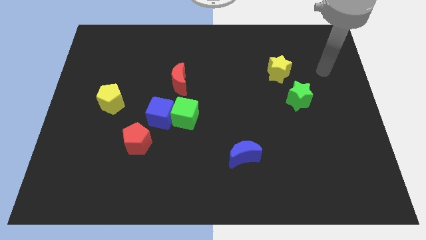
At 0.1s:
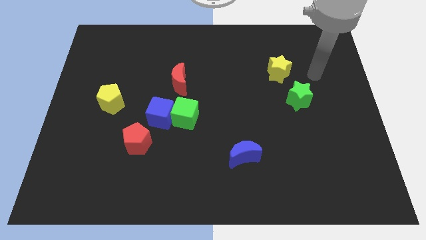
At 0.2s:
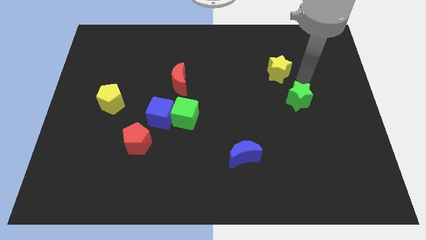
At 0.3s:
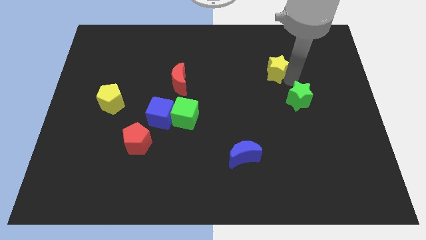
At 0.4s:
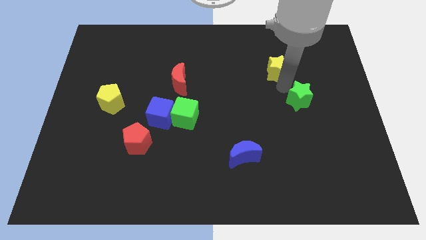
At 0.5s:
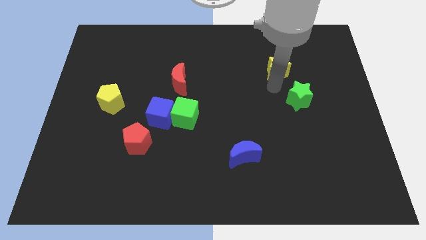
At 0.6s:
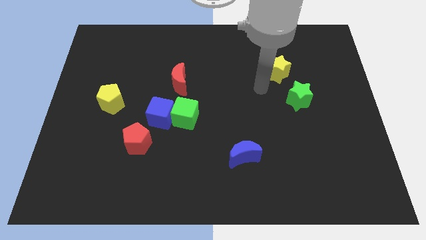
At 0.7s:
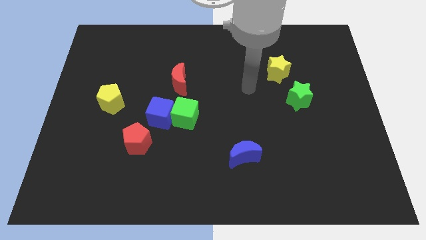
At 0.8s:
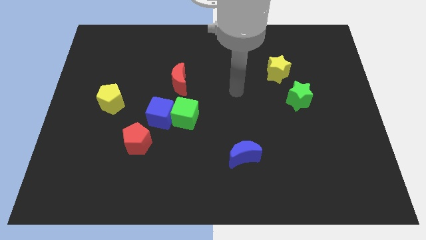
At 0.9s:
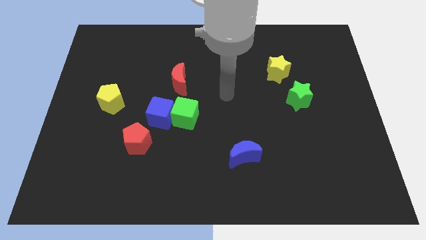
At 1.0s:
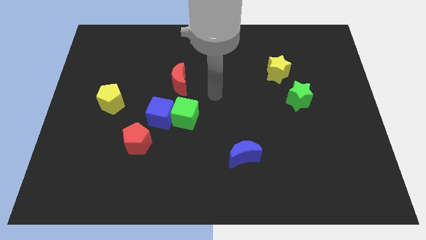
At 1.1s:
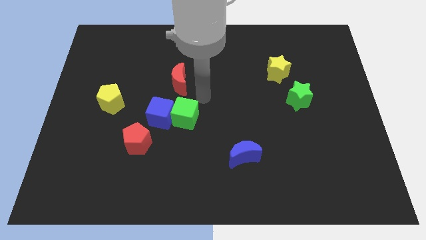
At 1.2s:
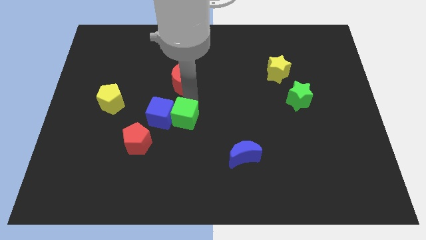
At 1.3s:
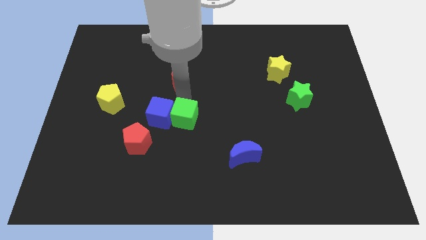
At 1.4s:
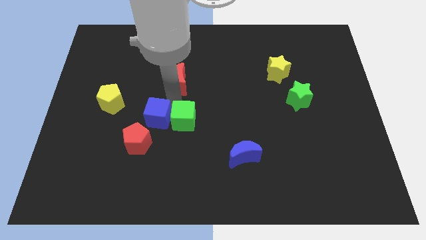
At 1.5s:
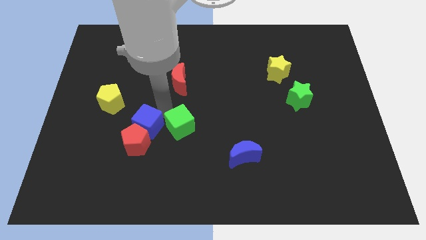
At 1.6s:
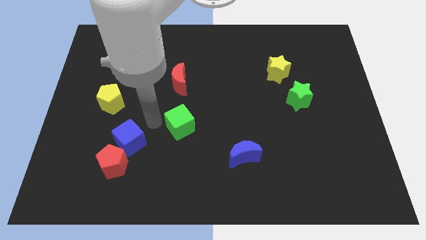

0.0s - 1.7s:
move the green cube away from the blue cube

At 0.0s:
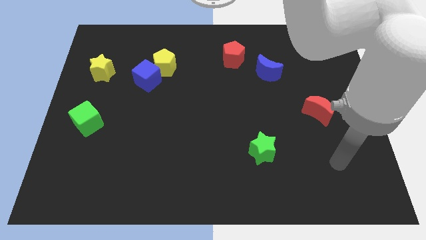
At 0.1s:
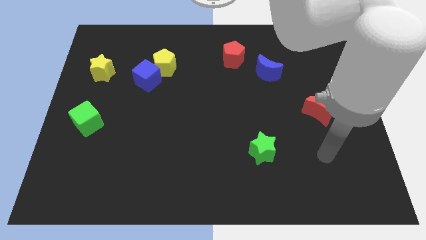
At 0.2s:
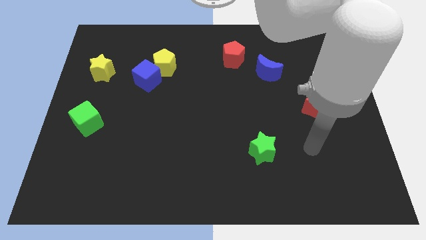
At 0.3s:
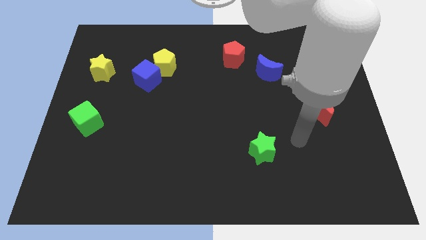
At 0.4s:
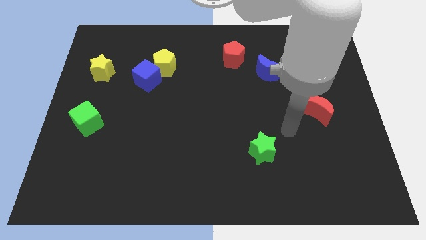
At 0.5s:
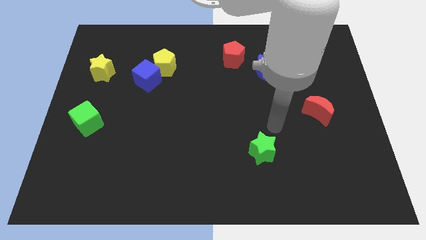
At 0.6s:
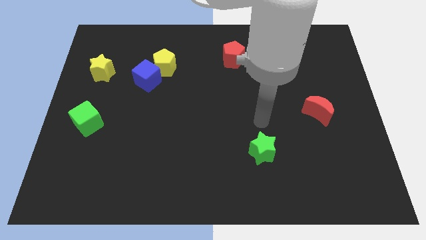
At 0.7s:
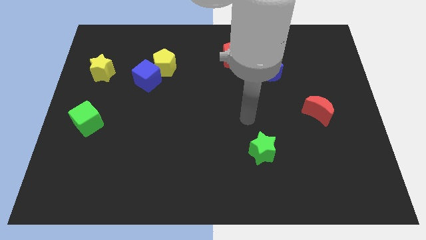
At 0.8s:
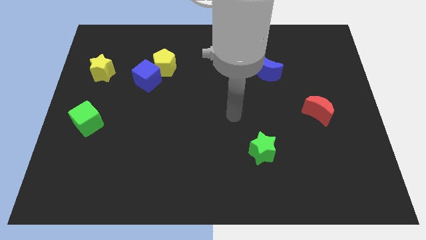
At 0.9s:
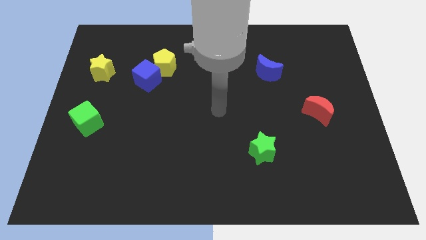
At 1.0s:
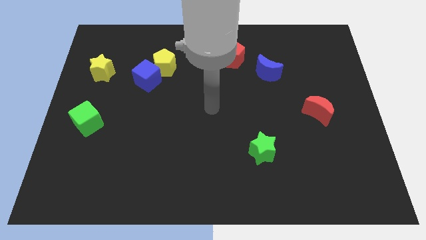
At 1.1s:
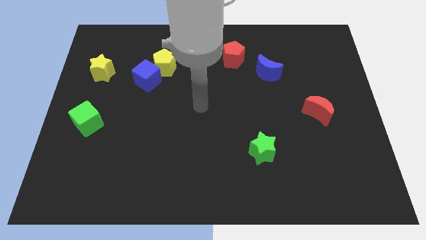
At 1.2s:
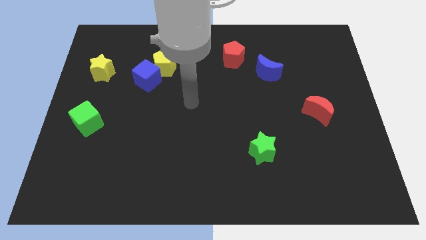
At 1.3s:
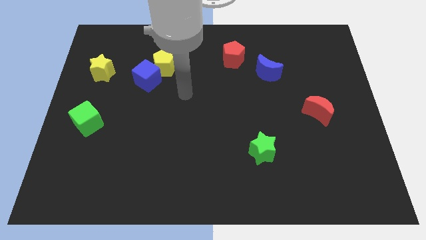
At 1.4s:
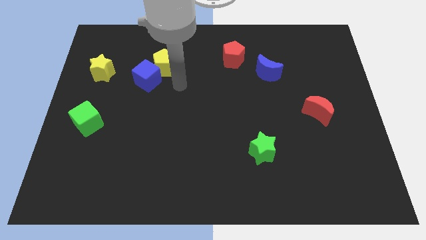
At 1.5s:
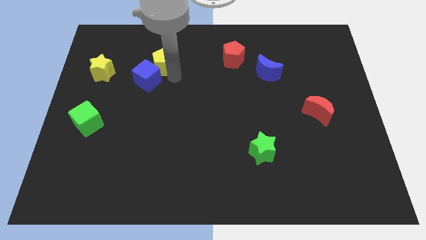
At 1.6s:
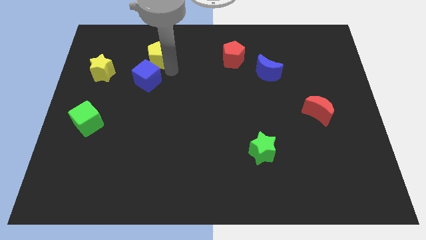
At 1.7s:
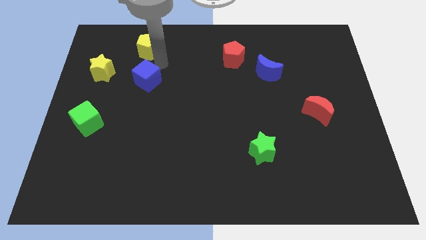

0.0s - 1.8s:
pull the blue cube apart from the yellow pentagon

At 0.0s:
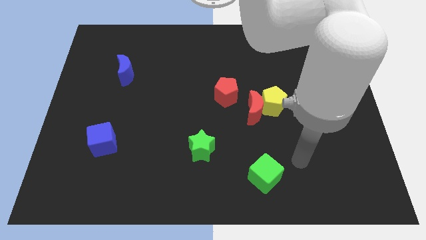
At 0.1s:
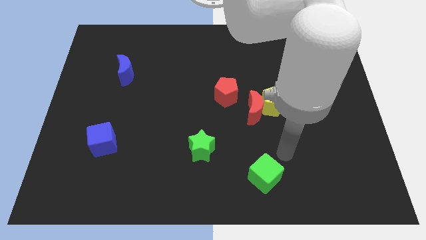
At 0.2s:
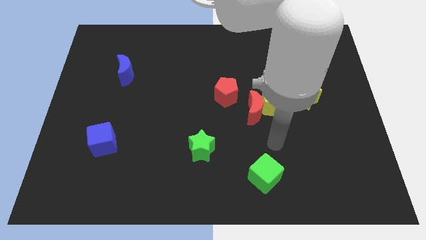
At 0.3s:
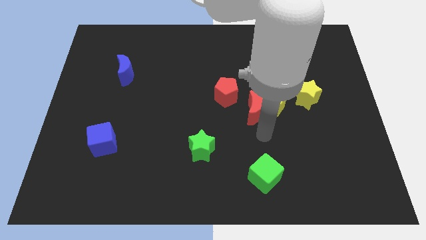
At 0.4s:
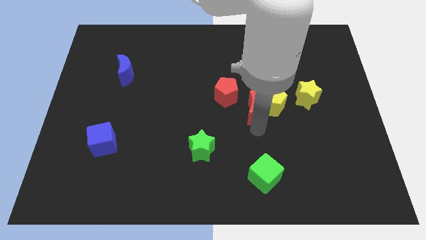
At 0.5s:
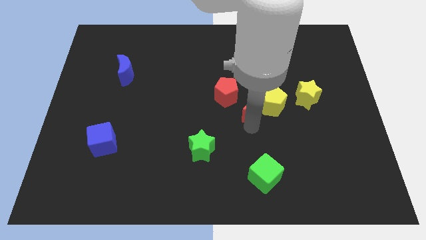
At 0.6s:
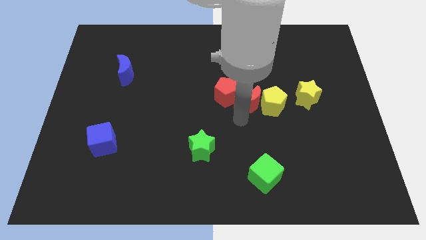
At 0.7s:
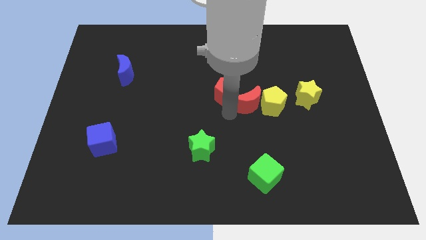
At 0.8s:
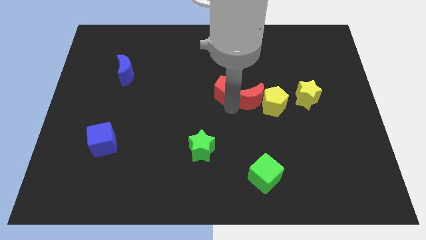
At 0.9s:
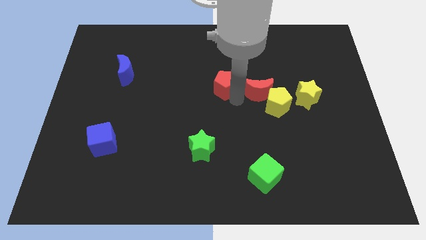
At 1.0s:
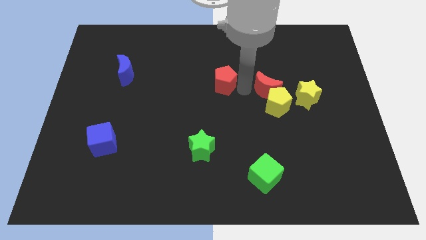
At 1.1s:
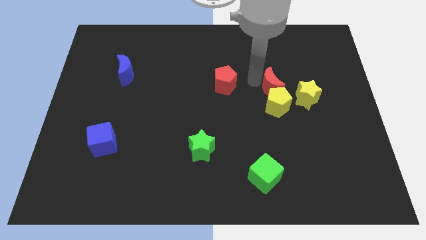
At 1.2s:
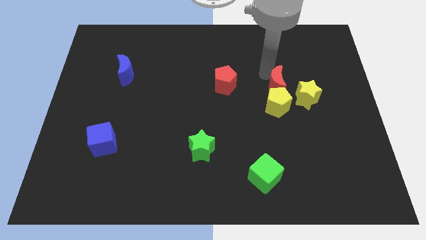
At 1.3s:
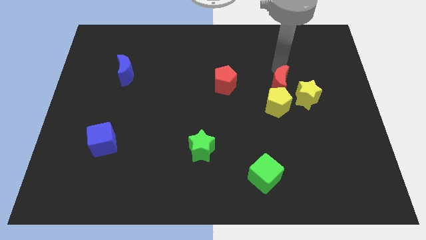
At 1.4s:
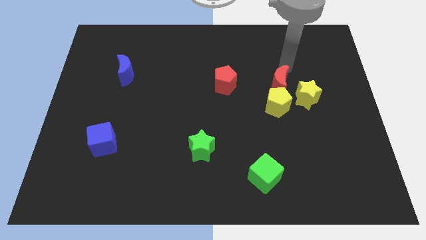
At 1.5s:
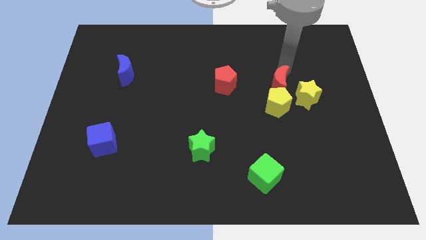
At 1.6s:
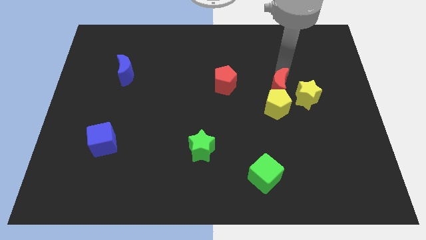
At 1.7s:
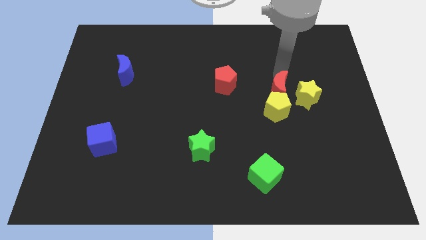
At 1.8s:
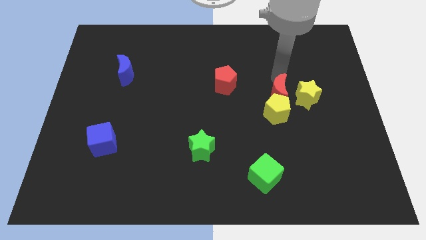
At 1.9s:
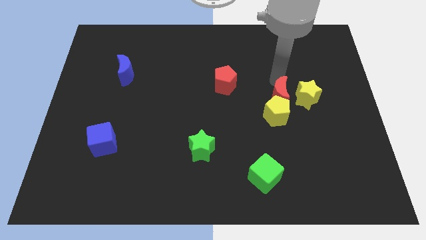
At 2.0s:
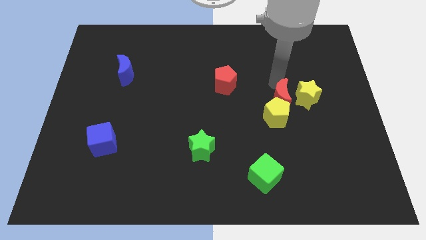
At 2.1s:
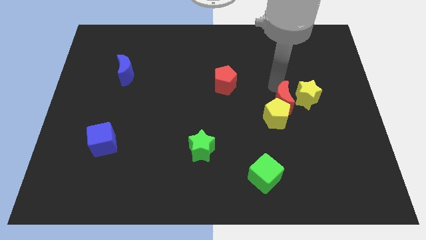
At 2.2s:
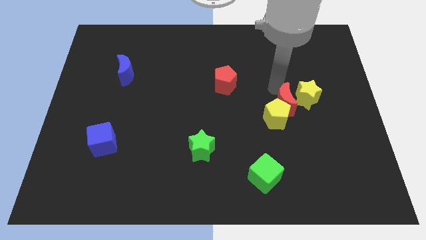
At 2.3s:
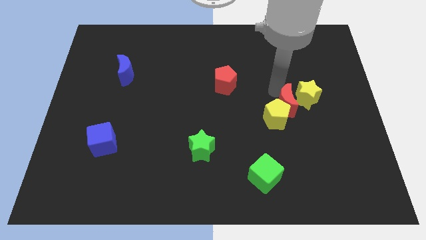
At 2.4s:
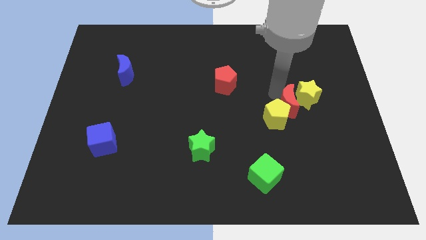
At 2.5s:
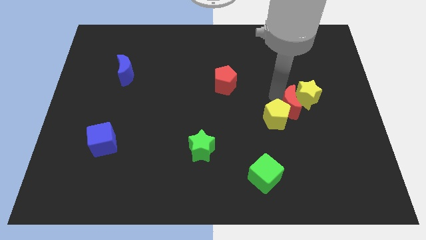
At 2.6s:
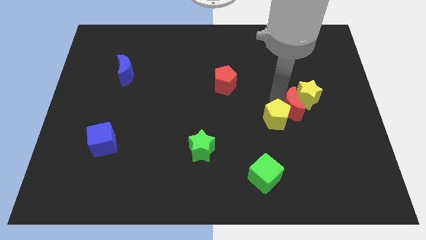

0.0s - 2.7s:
separate the red moon from the yellow pentagon and red pentagon

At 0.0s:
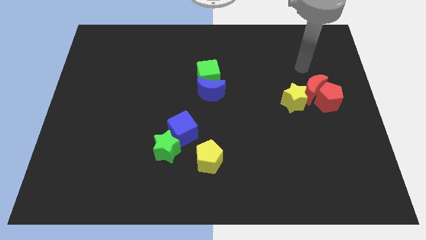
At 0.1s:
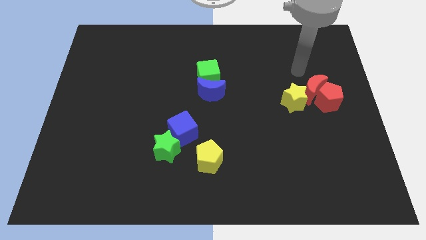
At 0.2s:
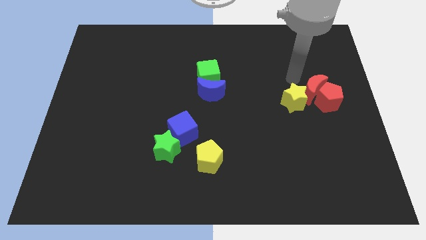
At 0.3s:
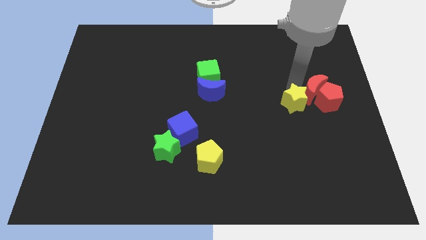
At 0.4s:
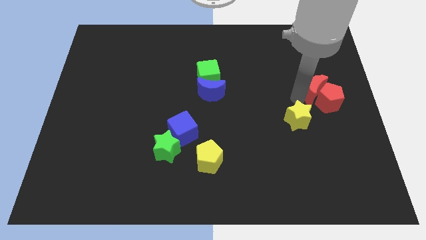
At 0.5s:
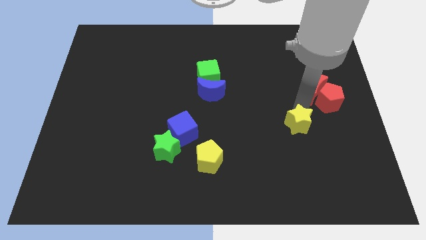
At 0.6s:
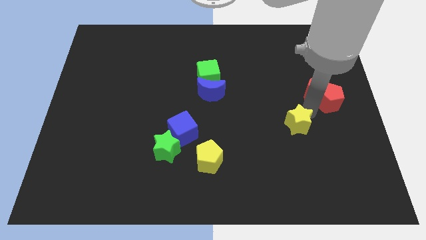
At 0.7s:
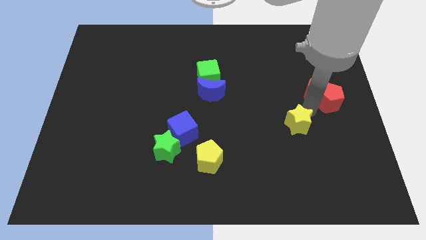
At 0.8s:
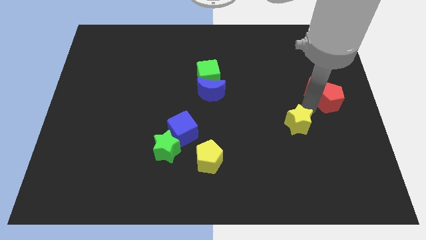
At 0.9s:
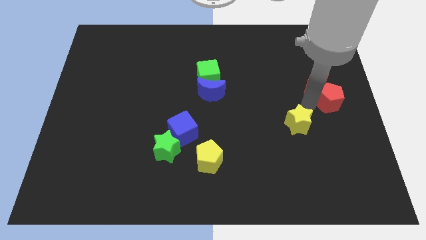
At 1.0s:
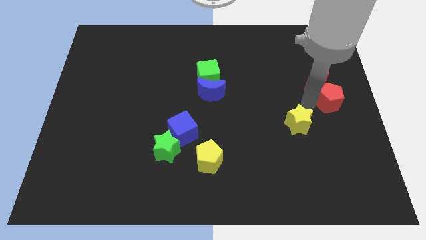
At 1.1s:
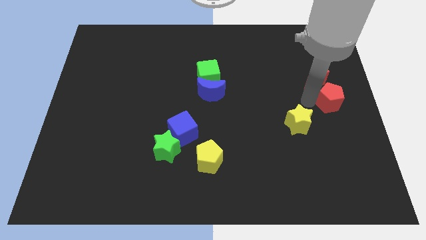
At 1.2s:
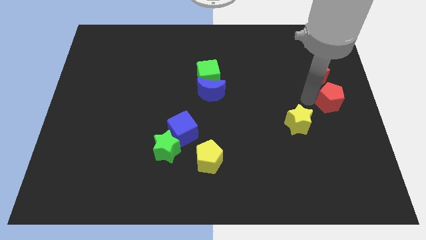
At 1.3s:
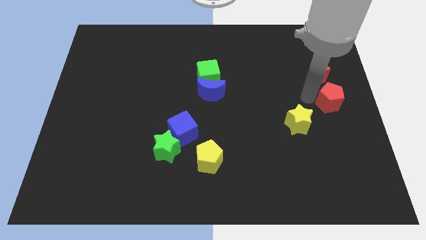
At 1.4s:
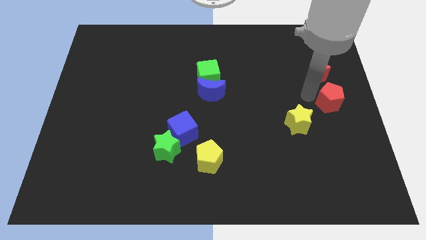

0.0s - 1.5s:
pull the red moon apart from the red pentagon and yellow star

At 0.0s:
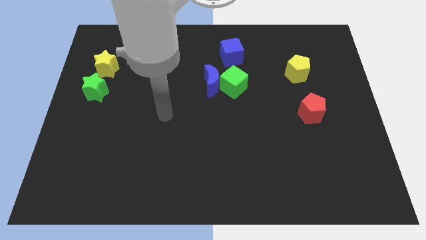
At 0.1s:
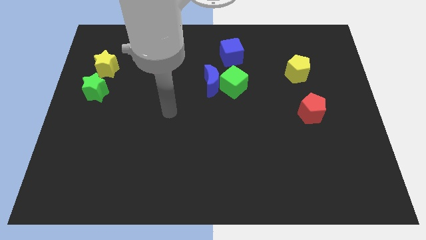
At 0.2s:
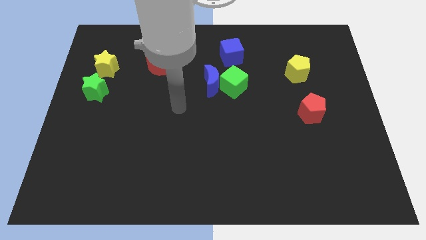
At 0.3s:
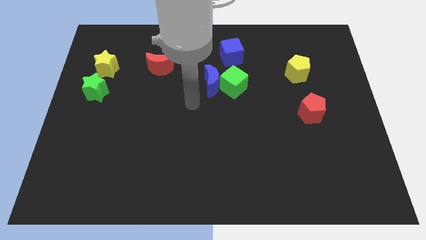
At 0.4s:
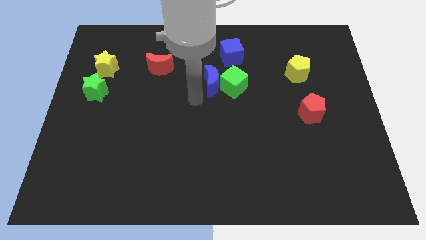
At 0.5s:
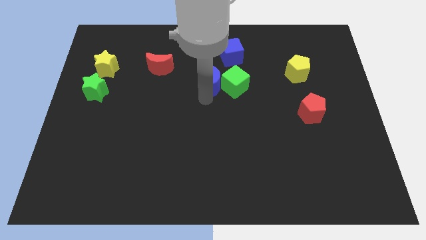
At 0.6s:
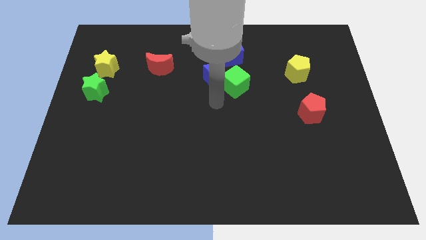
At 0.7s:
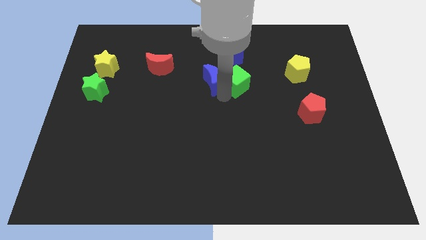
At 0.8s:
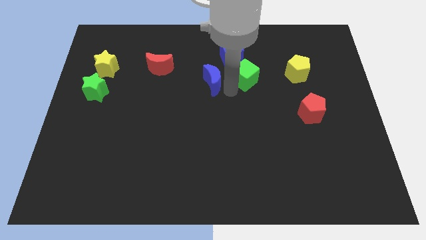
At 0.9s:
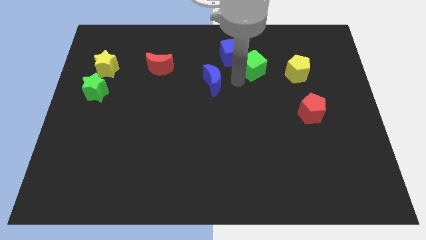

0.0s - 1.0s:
pull the blue moon apart from the green cube

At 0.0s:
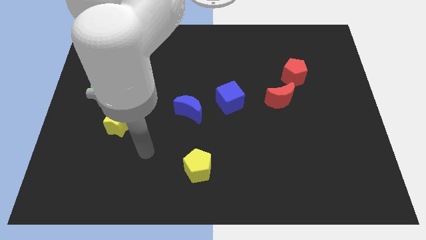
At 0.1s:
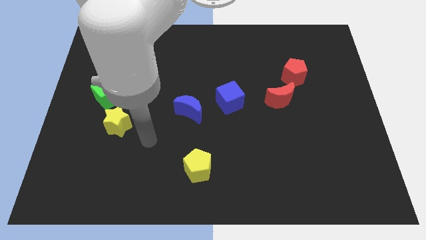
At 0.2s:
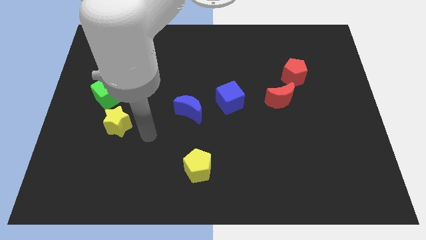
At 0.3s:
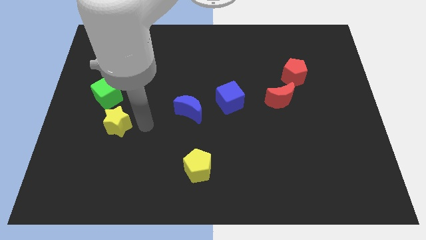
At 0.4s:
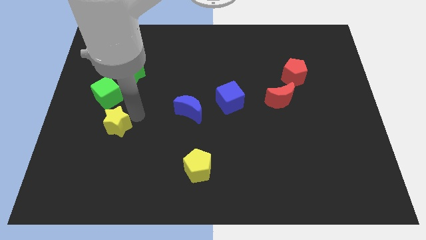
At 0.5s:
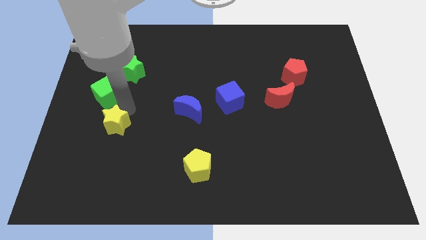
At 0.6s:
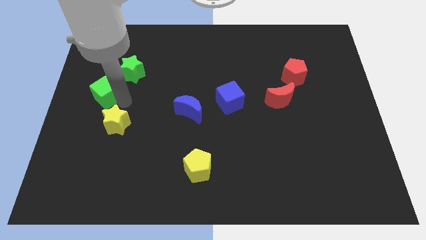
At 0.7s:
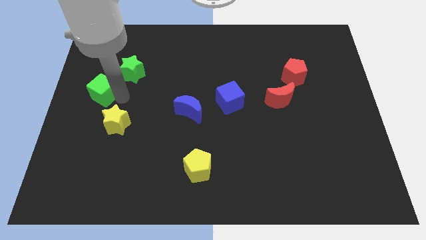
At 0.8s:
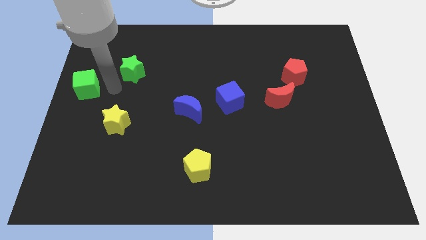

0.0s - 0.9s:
separate the green star from the green cube
